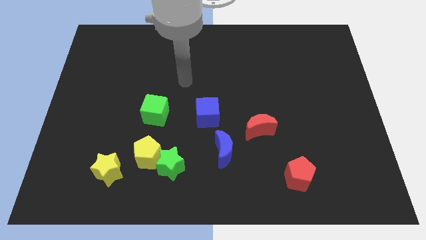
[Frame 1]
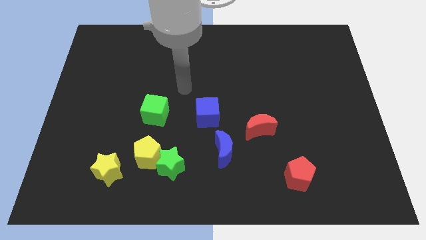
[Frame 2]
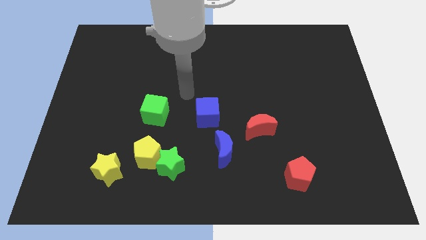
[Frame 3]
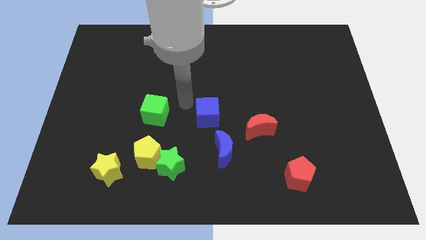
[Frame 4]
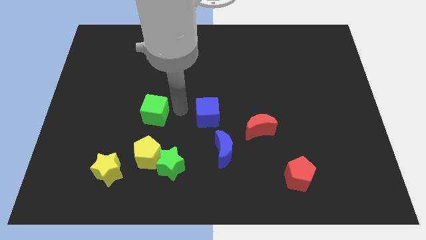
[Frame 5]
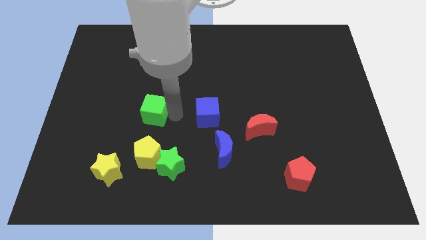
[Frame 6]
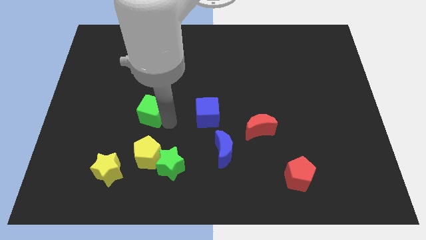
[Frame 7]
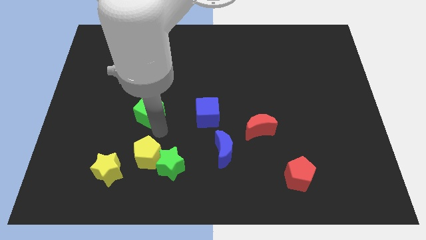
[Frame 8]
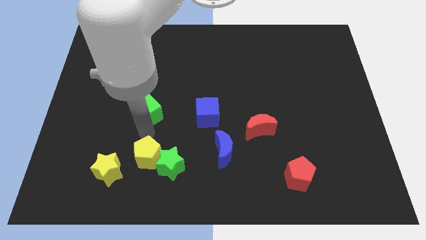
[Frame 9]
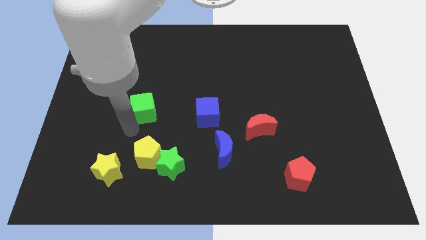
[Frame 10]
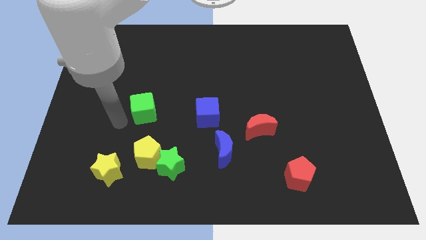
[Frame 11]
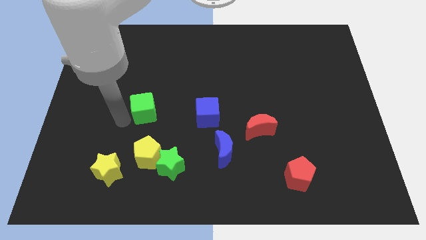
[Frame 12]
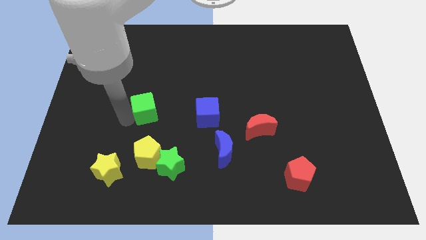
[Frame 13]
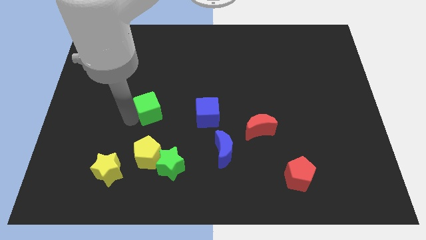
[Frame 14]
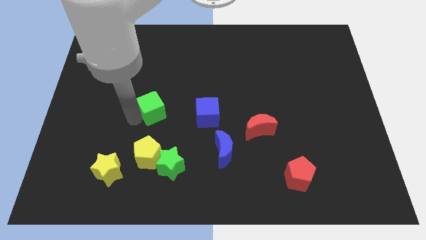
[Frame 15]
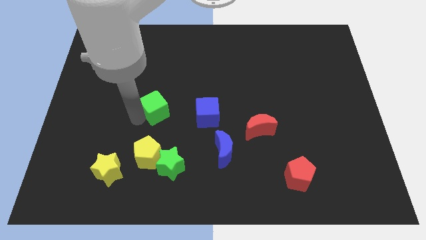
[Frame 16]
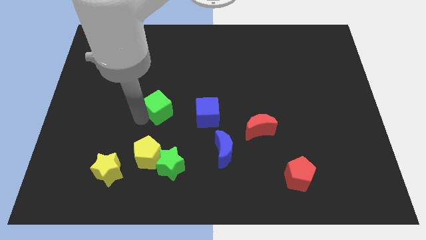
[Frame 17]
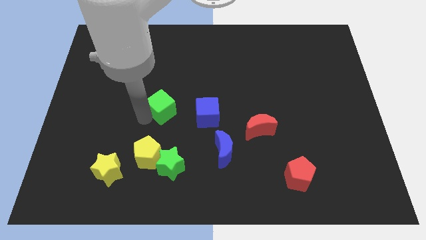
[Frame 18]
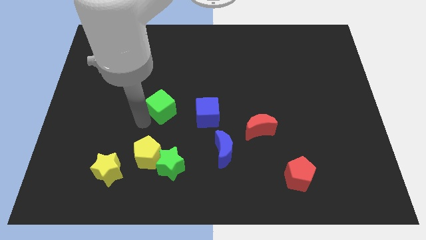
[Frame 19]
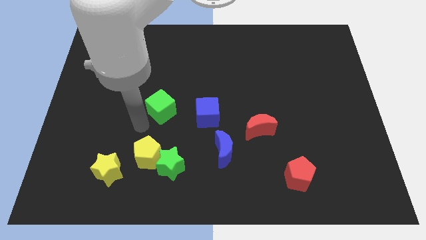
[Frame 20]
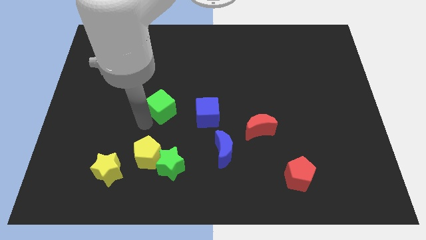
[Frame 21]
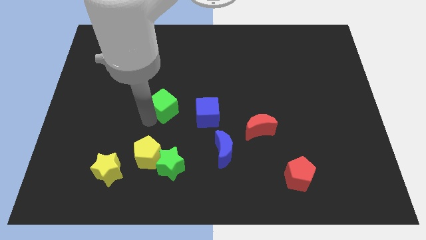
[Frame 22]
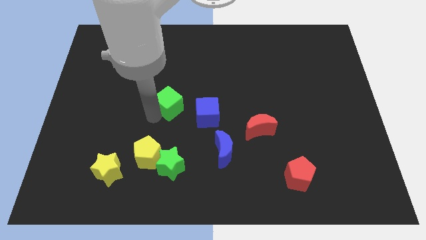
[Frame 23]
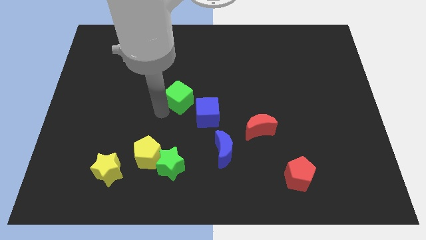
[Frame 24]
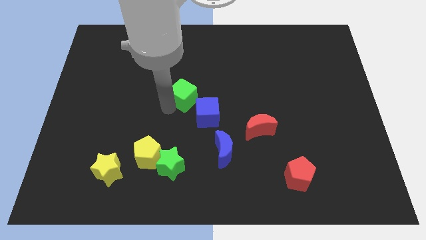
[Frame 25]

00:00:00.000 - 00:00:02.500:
slide the green cube upwards and right diagonally a little bit

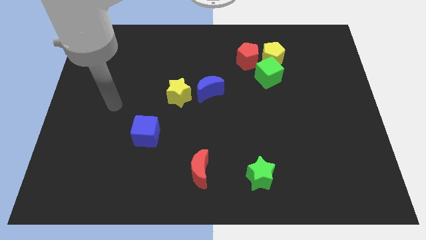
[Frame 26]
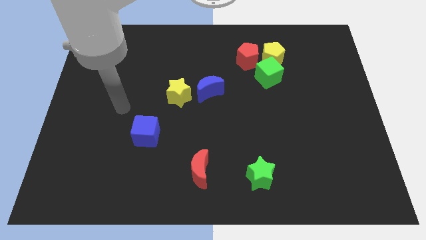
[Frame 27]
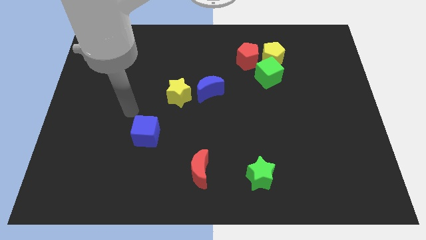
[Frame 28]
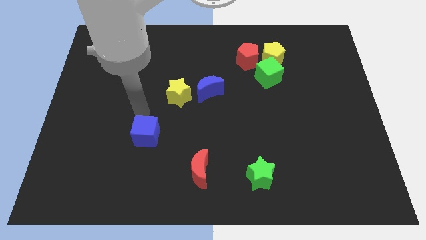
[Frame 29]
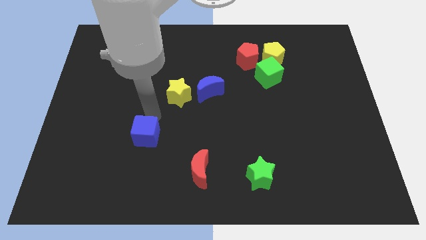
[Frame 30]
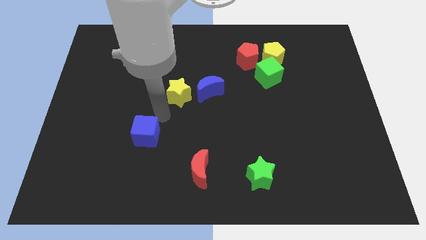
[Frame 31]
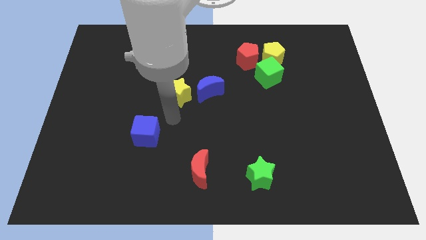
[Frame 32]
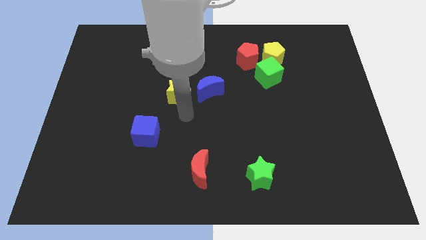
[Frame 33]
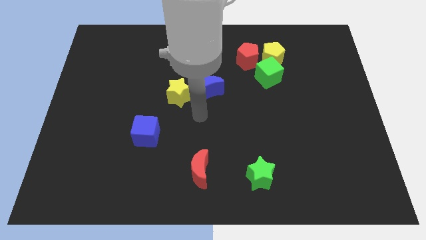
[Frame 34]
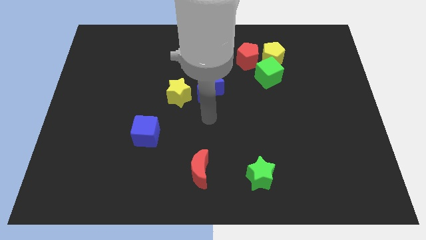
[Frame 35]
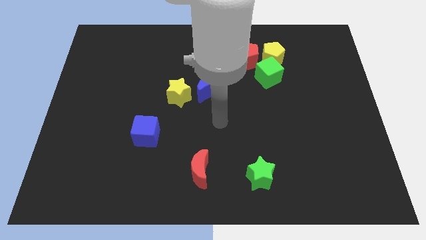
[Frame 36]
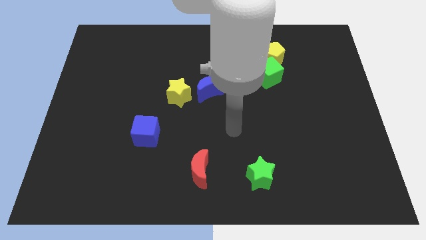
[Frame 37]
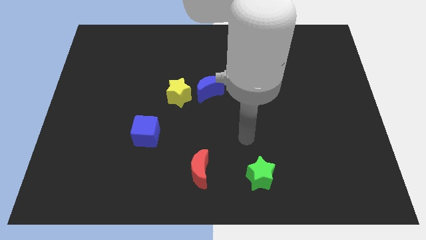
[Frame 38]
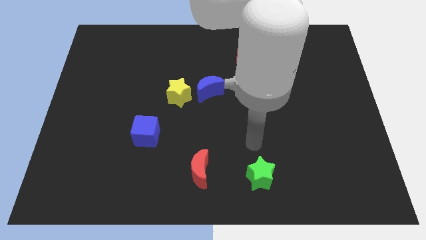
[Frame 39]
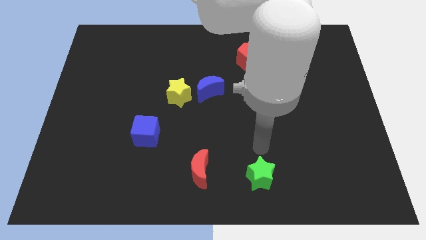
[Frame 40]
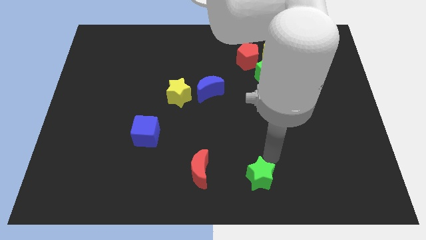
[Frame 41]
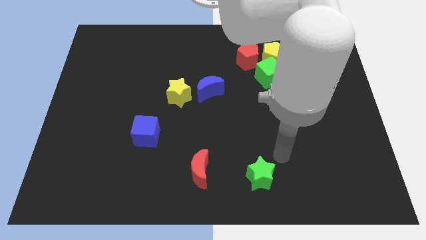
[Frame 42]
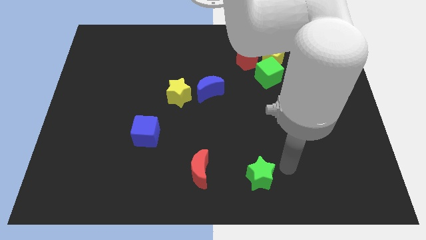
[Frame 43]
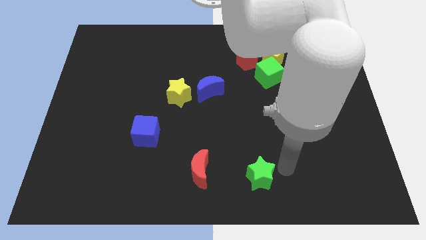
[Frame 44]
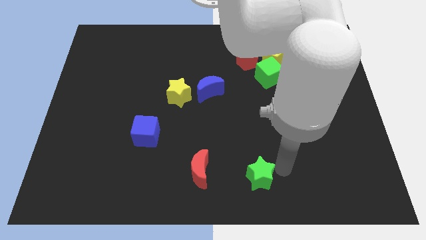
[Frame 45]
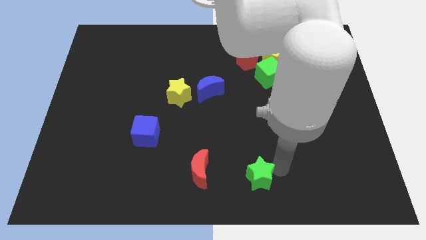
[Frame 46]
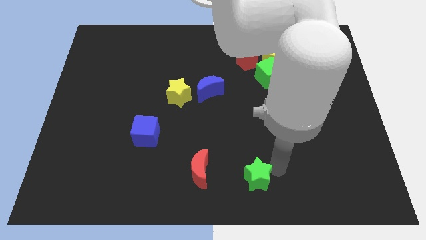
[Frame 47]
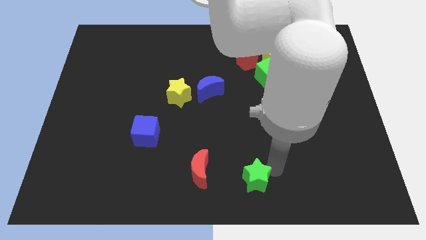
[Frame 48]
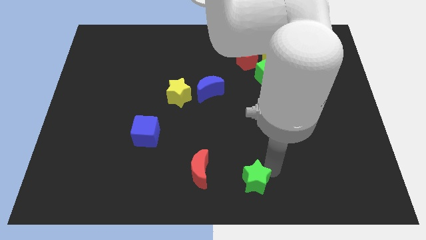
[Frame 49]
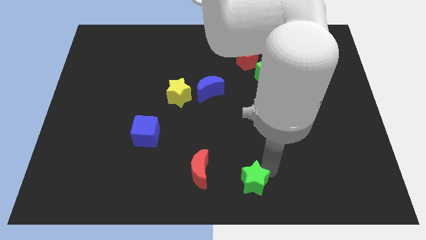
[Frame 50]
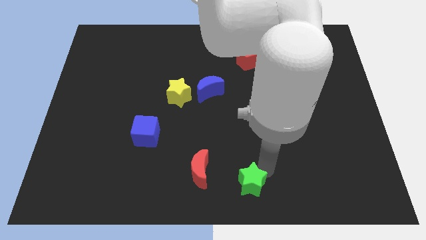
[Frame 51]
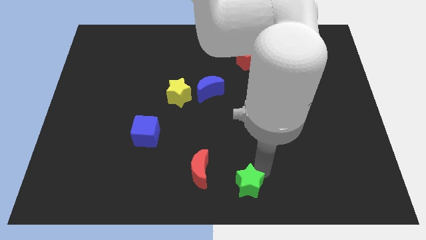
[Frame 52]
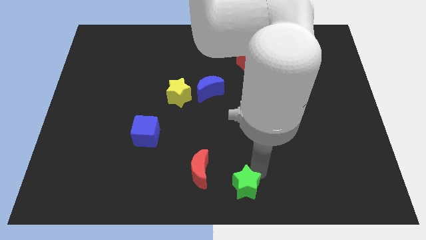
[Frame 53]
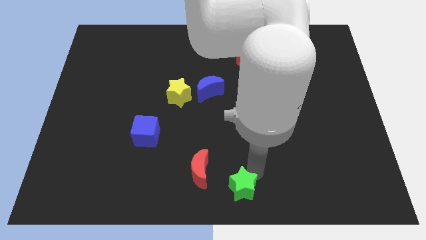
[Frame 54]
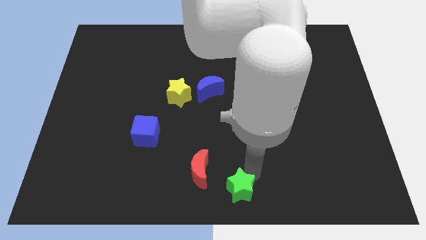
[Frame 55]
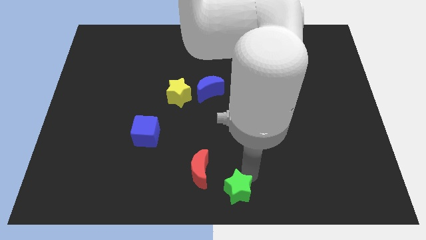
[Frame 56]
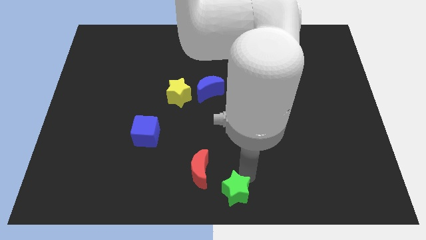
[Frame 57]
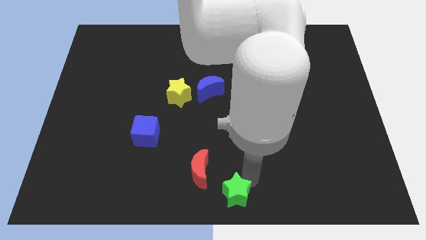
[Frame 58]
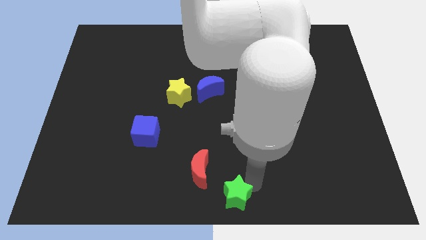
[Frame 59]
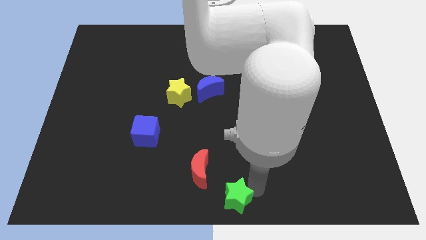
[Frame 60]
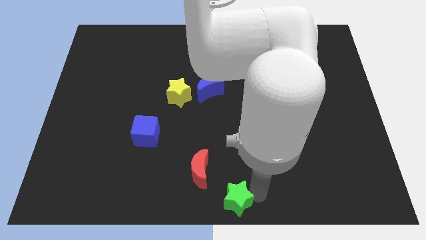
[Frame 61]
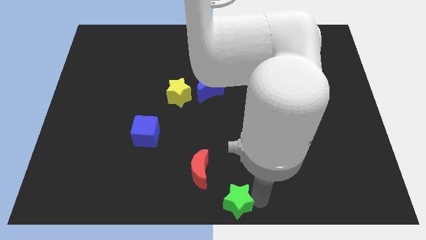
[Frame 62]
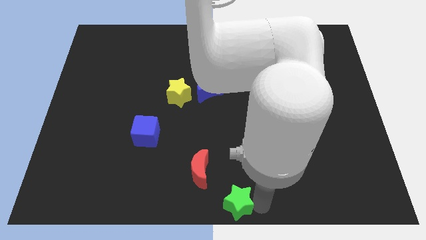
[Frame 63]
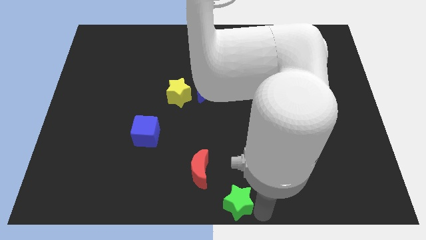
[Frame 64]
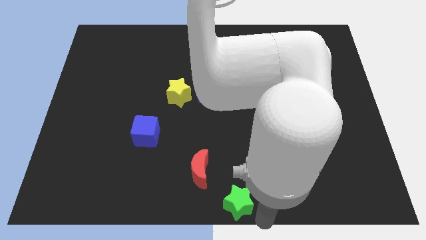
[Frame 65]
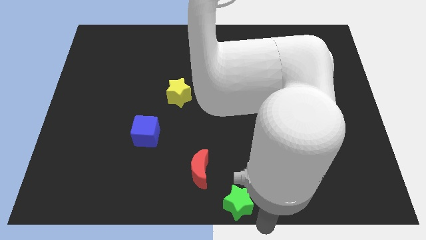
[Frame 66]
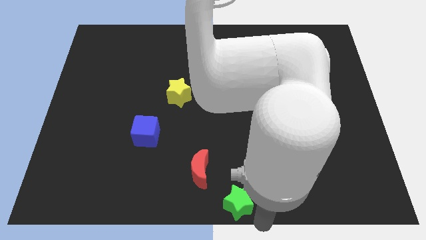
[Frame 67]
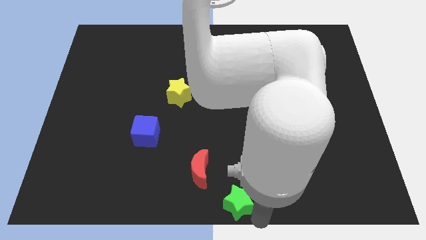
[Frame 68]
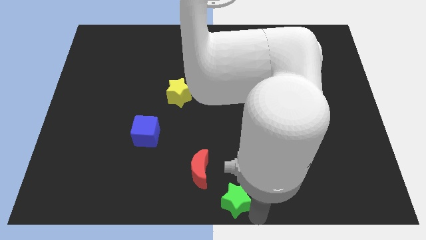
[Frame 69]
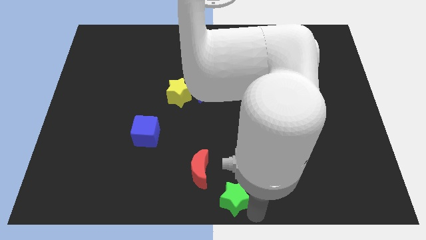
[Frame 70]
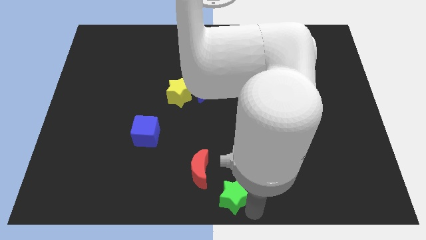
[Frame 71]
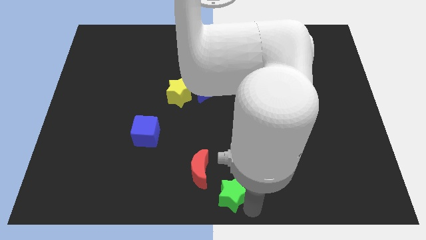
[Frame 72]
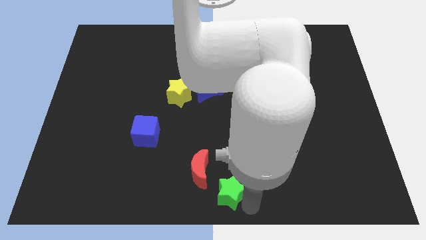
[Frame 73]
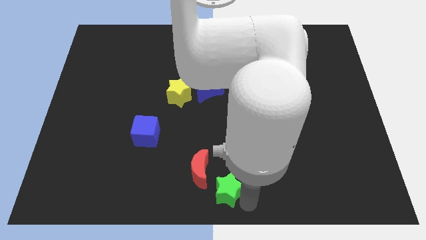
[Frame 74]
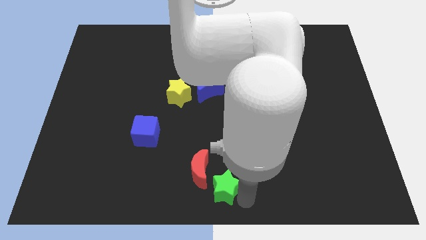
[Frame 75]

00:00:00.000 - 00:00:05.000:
slightly push the green star to the left

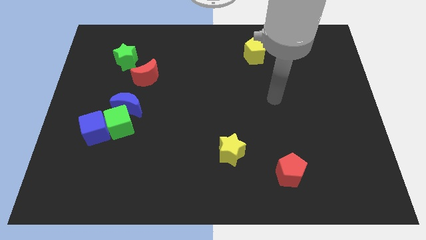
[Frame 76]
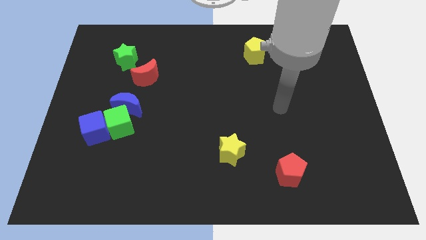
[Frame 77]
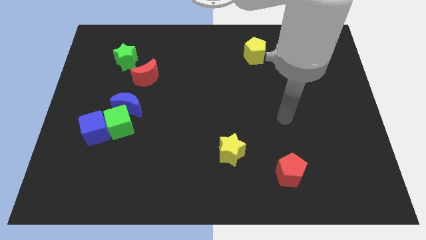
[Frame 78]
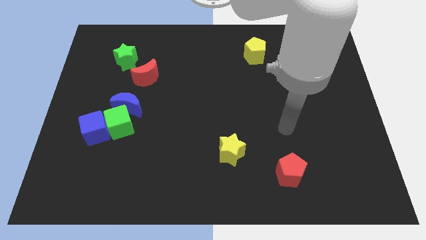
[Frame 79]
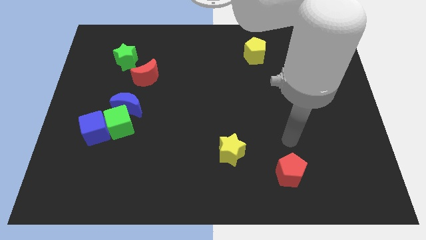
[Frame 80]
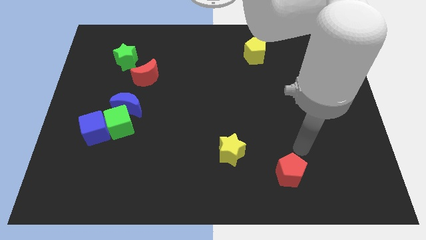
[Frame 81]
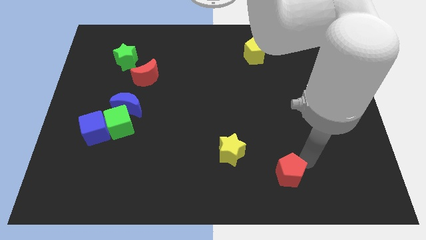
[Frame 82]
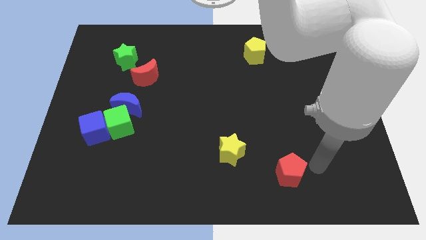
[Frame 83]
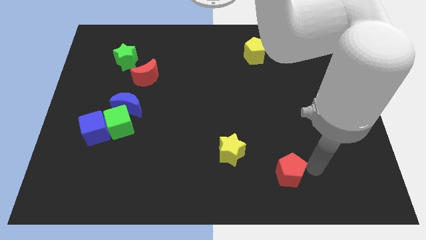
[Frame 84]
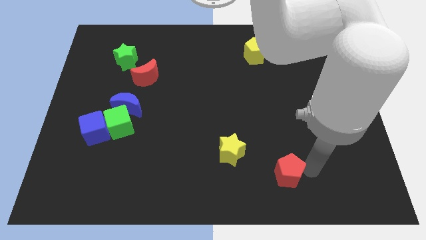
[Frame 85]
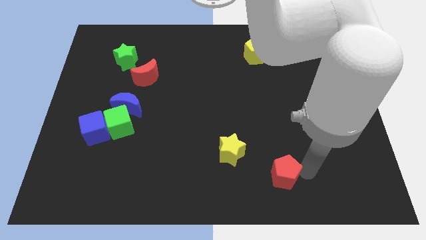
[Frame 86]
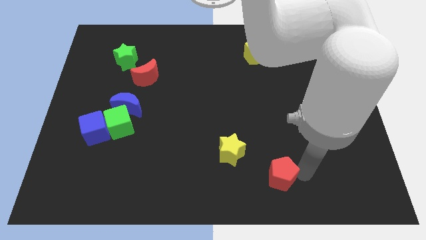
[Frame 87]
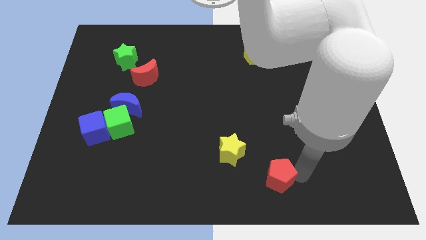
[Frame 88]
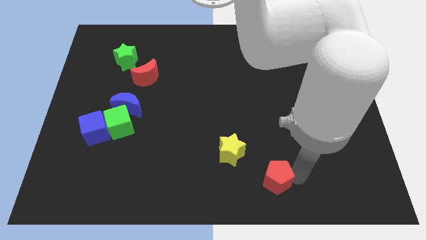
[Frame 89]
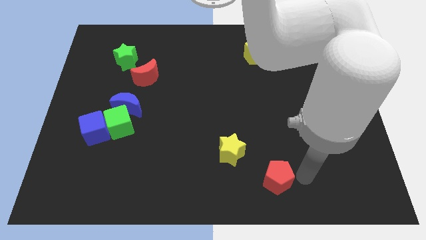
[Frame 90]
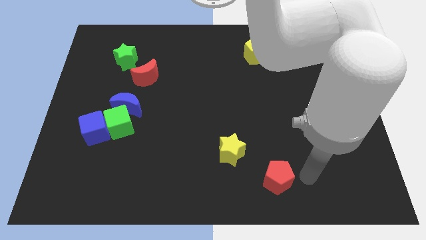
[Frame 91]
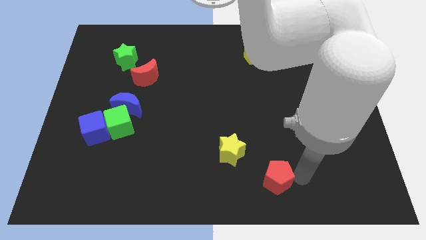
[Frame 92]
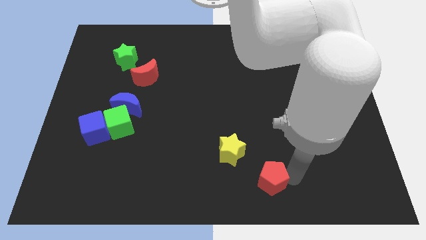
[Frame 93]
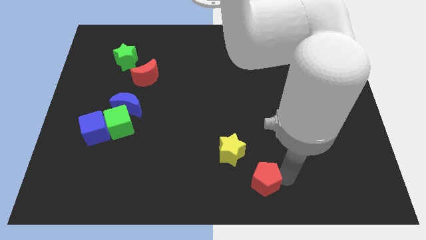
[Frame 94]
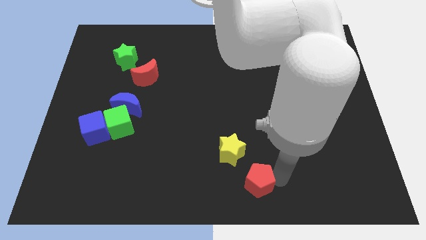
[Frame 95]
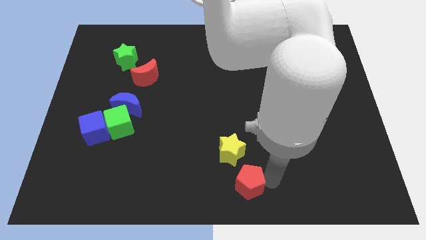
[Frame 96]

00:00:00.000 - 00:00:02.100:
slide the red pentagon somewhat to the left
